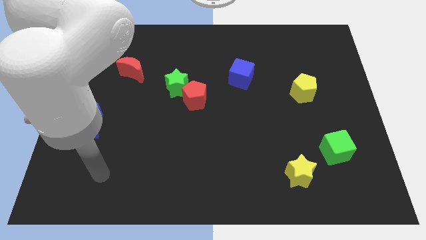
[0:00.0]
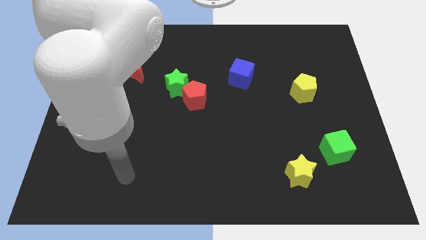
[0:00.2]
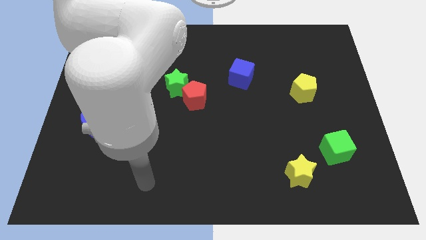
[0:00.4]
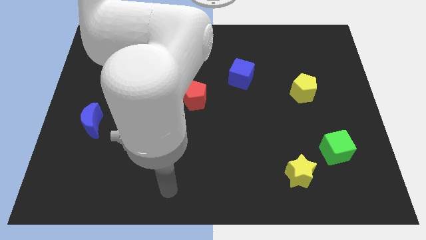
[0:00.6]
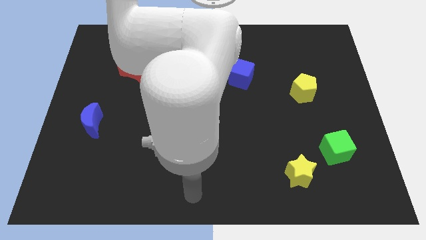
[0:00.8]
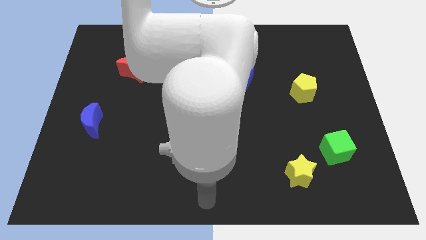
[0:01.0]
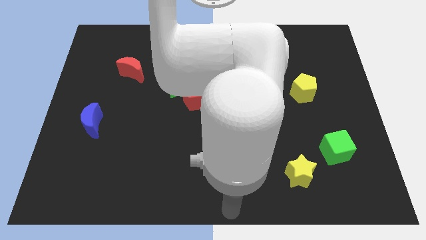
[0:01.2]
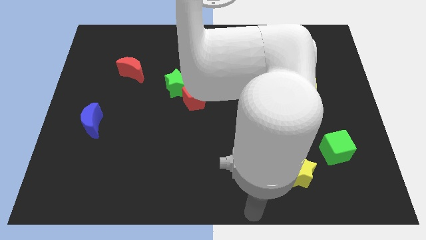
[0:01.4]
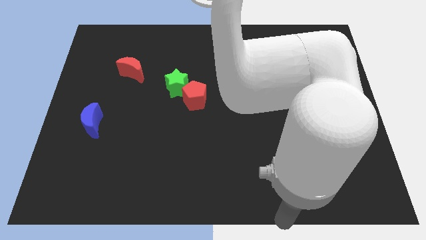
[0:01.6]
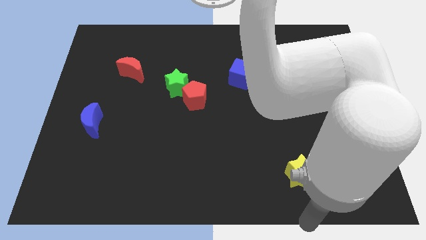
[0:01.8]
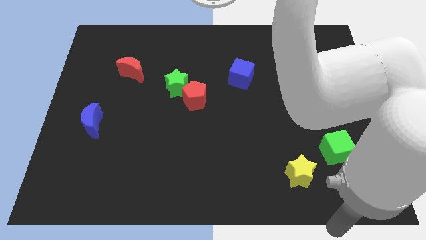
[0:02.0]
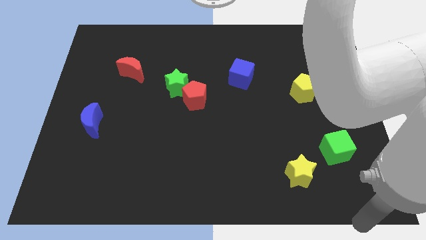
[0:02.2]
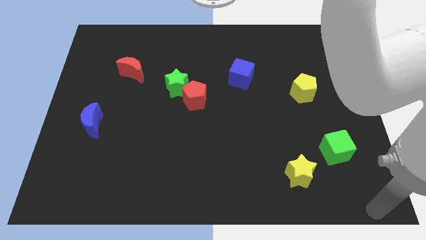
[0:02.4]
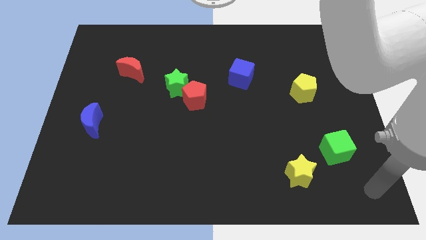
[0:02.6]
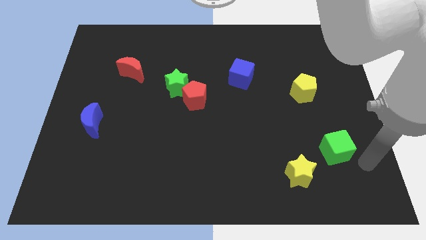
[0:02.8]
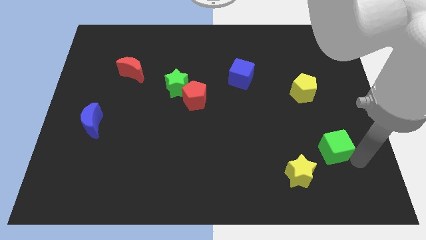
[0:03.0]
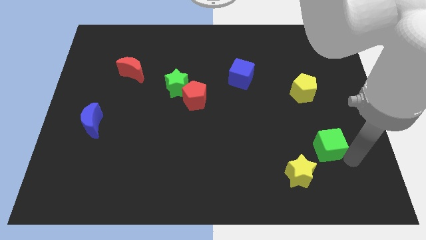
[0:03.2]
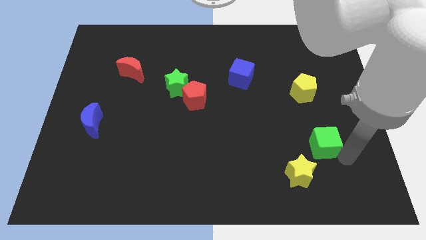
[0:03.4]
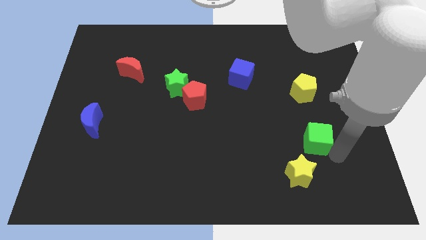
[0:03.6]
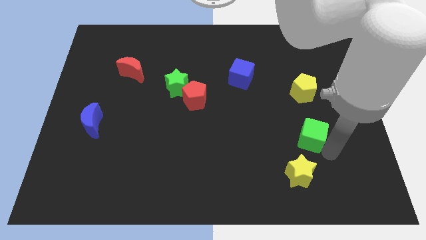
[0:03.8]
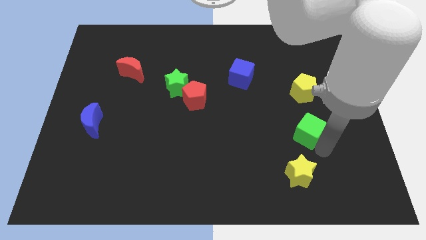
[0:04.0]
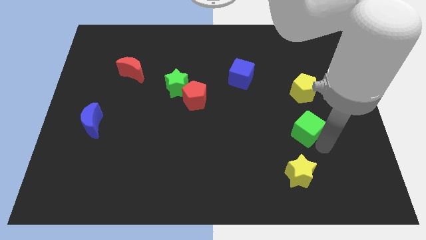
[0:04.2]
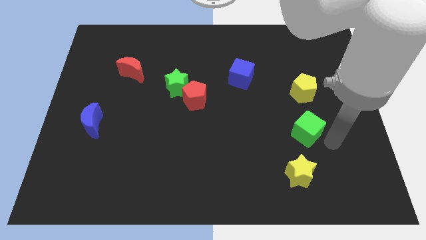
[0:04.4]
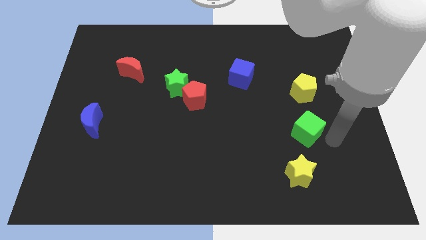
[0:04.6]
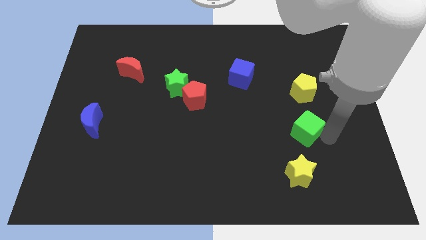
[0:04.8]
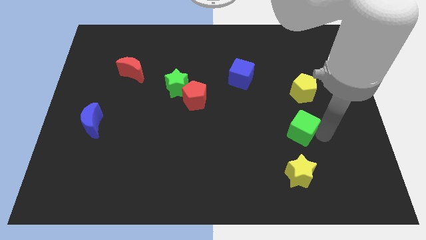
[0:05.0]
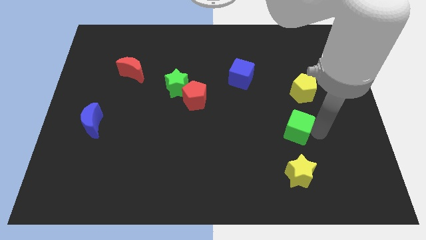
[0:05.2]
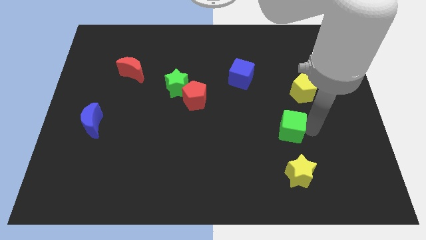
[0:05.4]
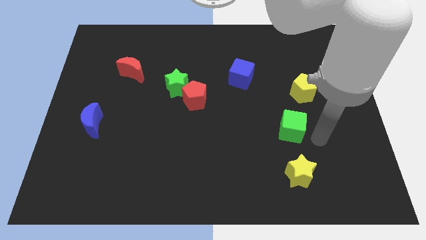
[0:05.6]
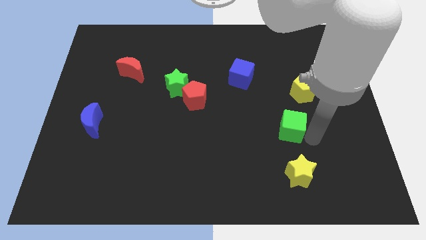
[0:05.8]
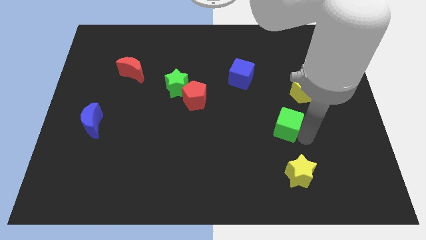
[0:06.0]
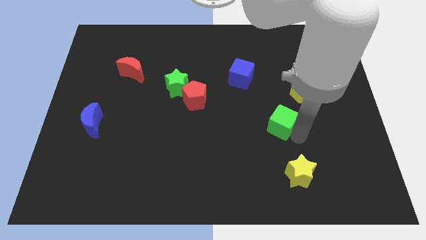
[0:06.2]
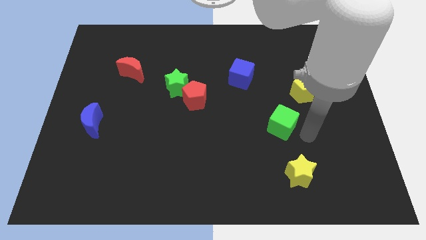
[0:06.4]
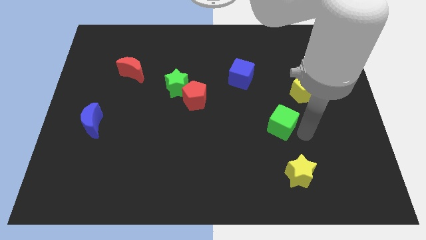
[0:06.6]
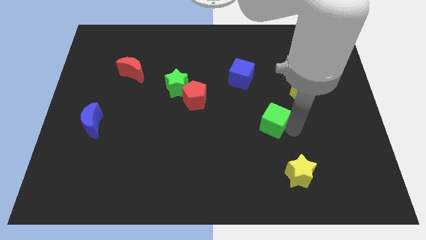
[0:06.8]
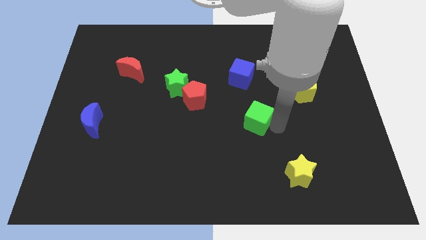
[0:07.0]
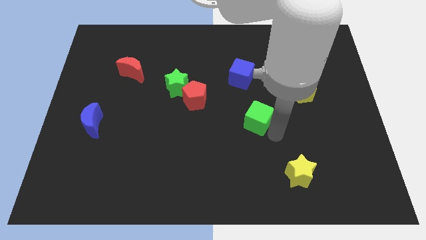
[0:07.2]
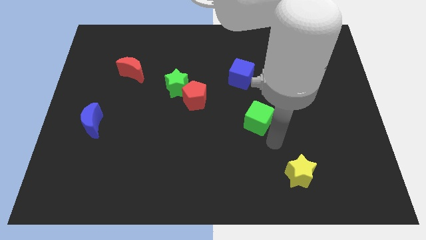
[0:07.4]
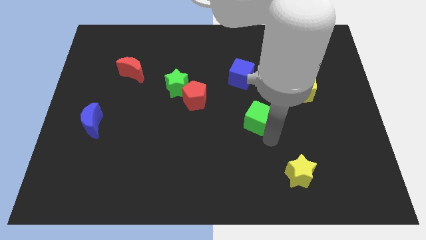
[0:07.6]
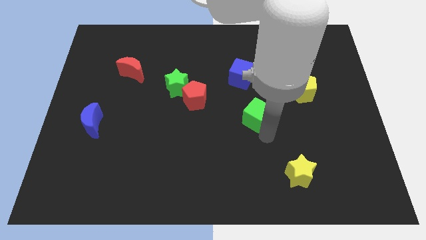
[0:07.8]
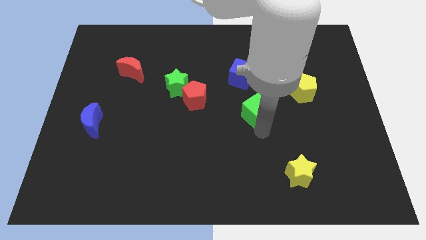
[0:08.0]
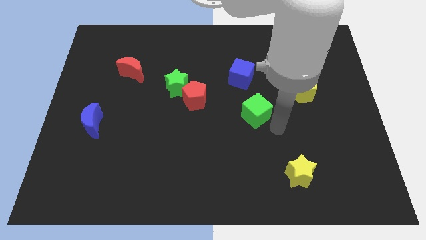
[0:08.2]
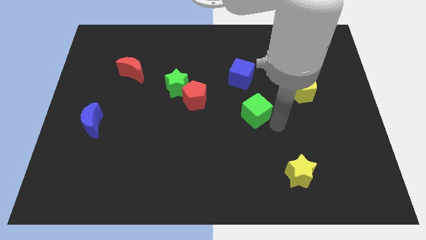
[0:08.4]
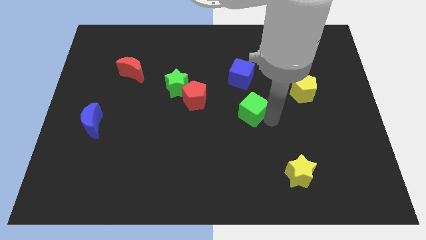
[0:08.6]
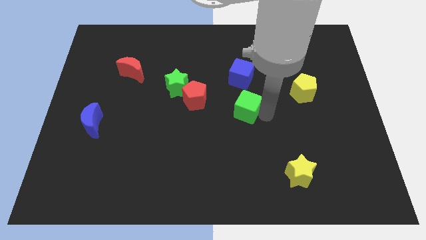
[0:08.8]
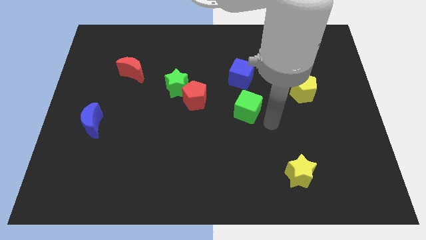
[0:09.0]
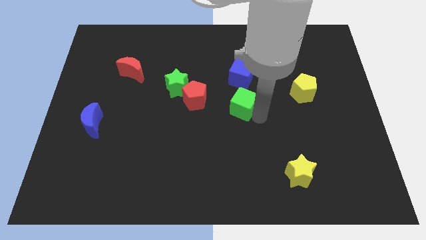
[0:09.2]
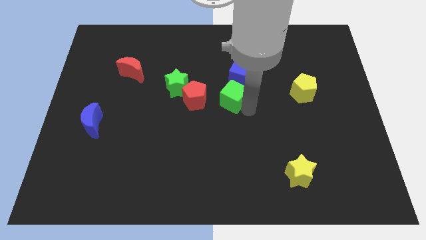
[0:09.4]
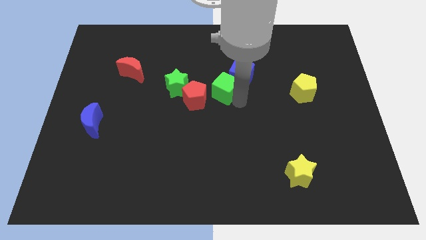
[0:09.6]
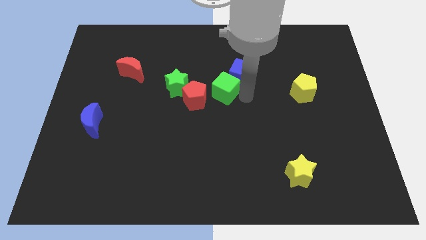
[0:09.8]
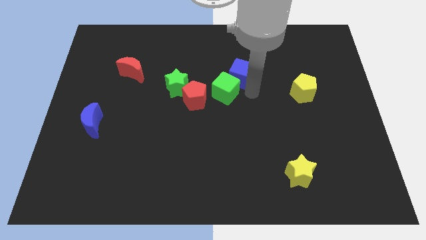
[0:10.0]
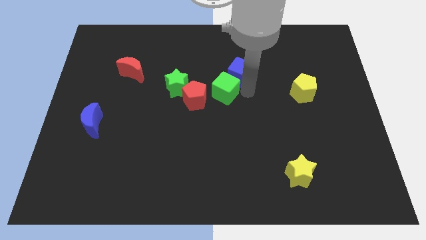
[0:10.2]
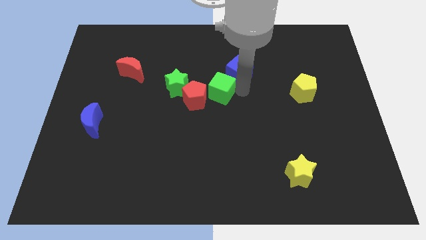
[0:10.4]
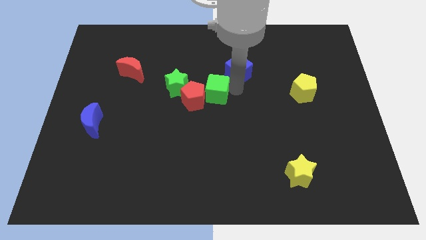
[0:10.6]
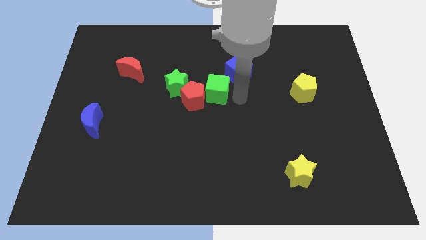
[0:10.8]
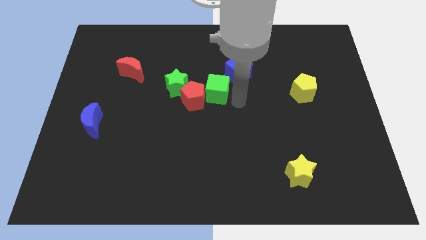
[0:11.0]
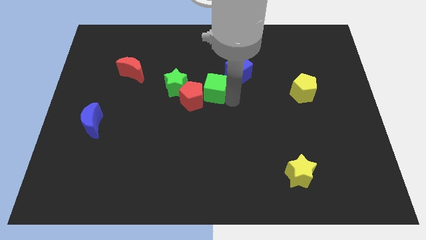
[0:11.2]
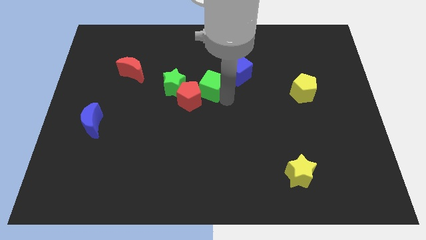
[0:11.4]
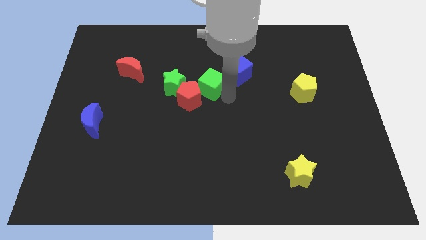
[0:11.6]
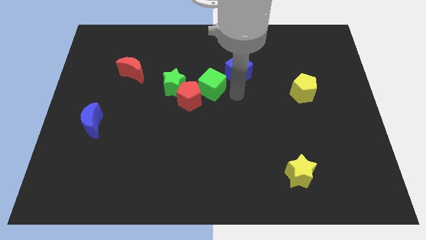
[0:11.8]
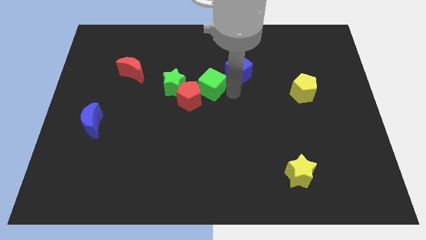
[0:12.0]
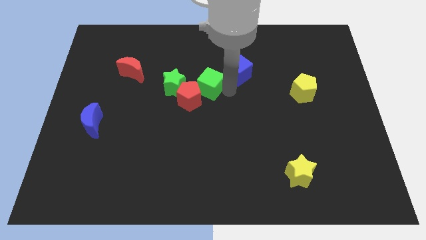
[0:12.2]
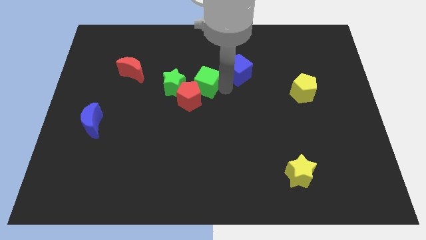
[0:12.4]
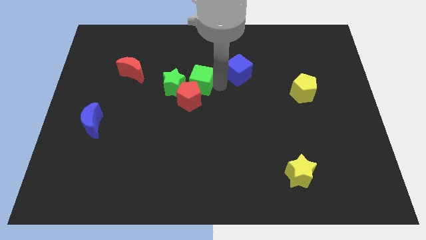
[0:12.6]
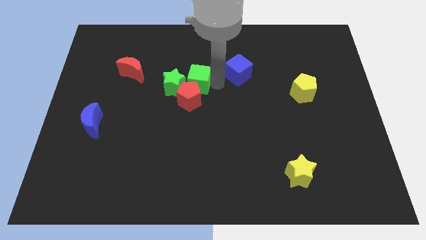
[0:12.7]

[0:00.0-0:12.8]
slide the green cube to the green star
